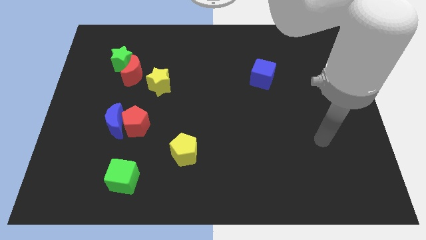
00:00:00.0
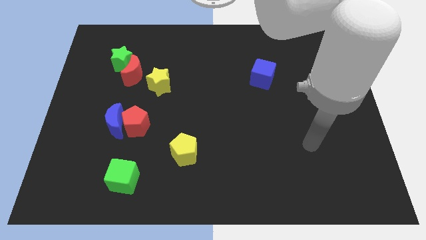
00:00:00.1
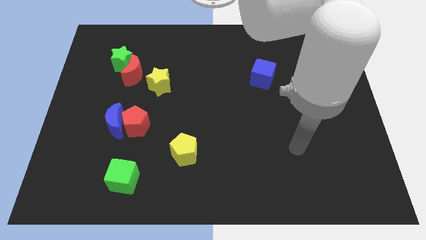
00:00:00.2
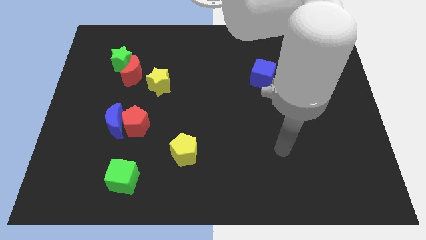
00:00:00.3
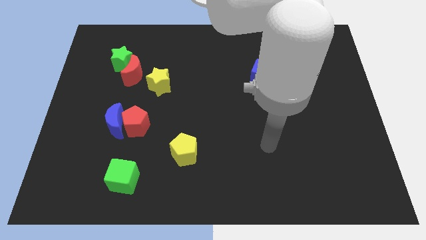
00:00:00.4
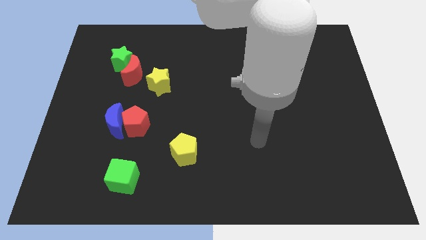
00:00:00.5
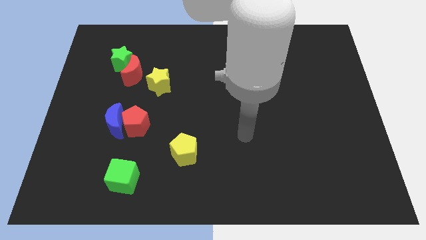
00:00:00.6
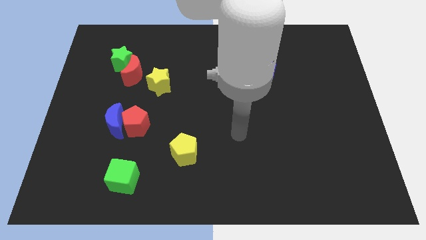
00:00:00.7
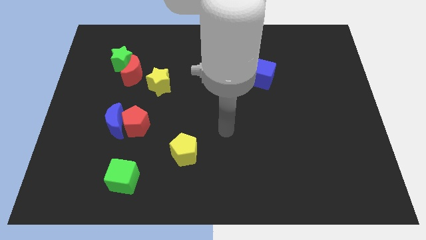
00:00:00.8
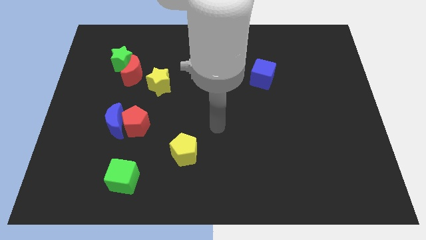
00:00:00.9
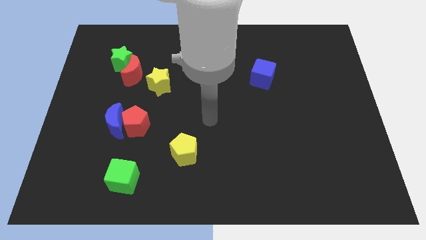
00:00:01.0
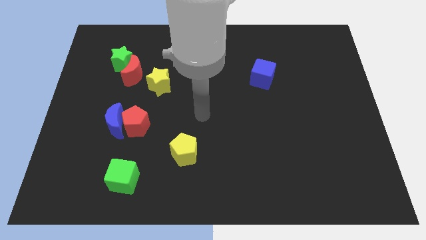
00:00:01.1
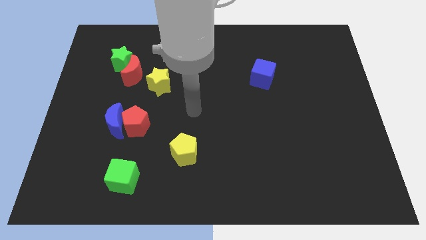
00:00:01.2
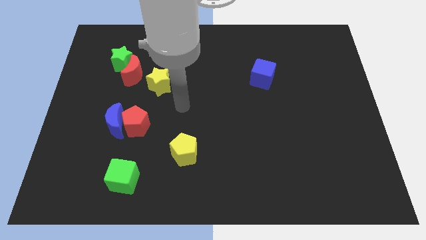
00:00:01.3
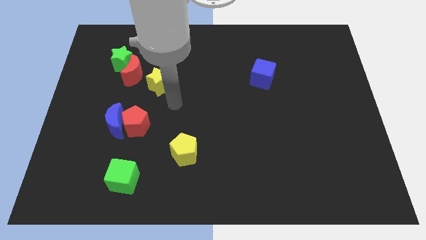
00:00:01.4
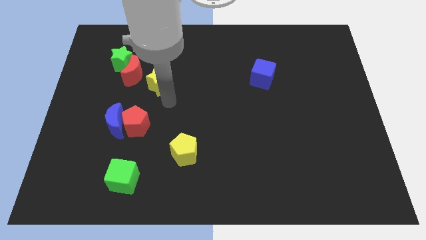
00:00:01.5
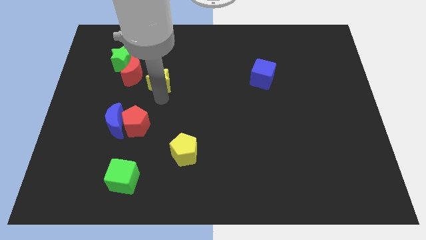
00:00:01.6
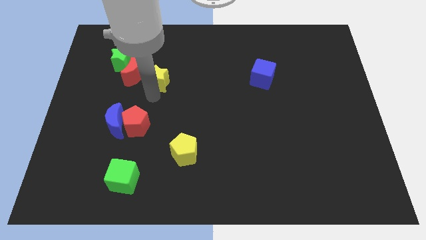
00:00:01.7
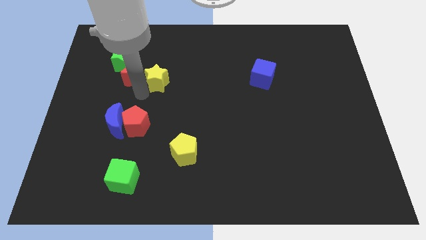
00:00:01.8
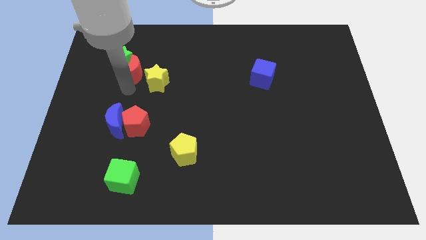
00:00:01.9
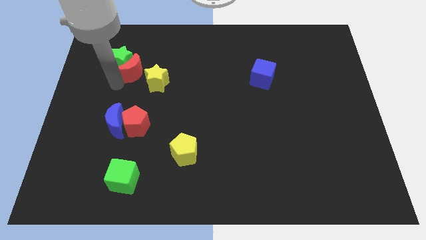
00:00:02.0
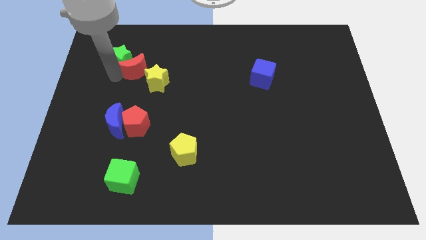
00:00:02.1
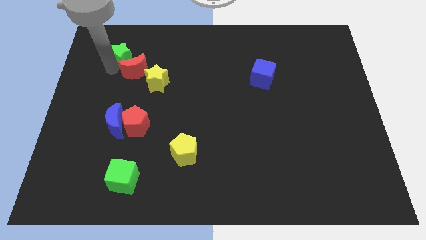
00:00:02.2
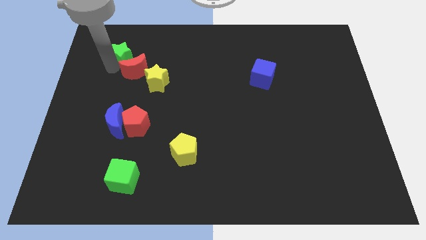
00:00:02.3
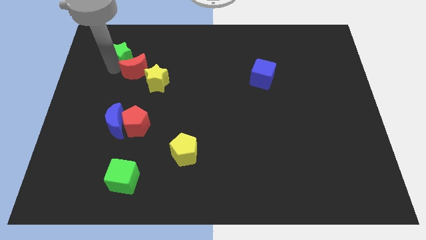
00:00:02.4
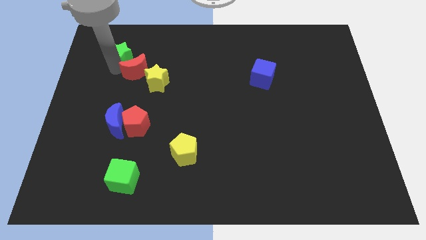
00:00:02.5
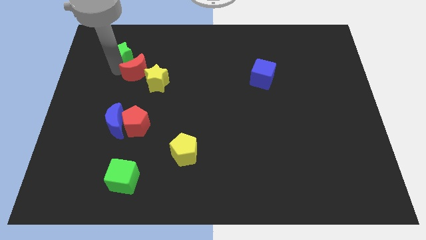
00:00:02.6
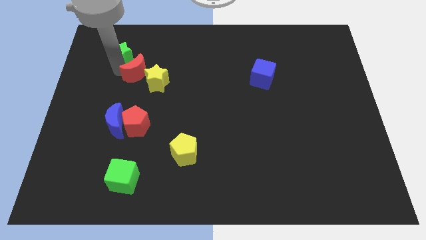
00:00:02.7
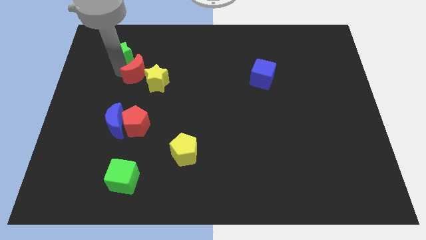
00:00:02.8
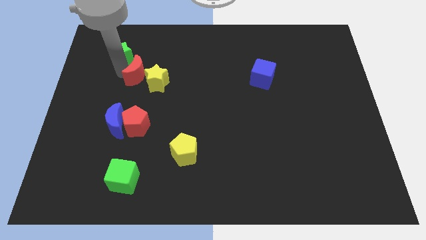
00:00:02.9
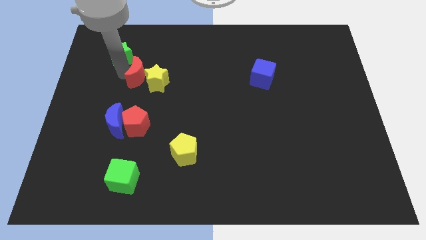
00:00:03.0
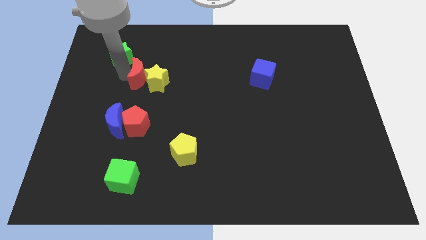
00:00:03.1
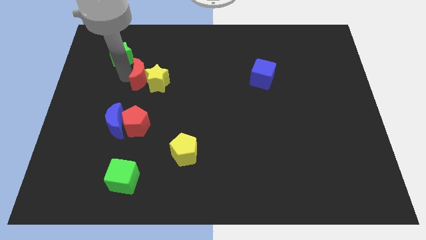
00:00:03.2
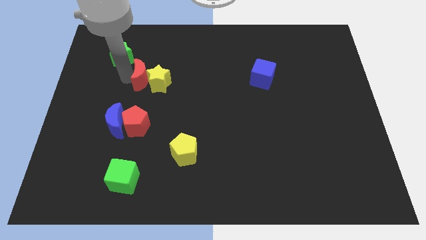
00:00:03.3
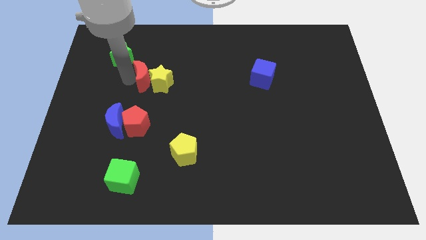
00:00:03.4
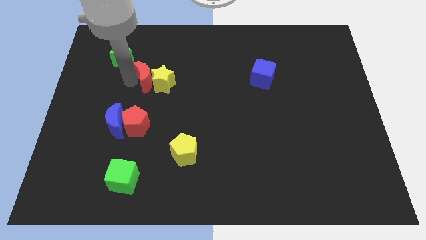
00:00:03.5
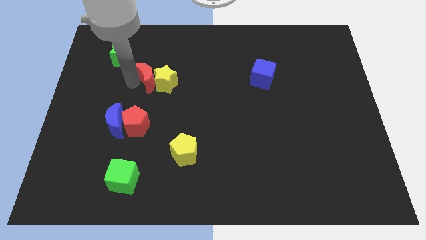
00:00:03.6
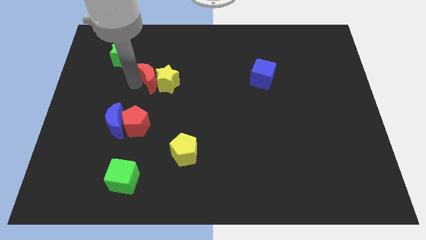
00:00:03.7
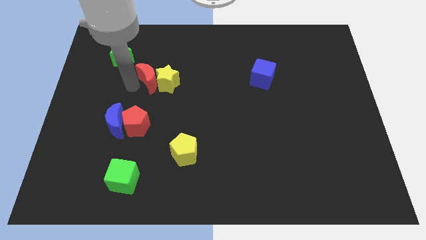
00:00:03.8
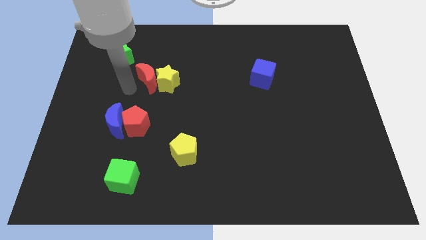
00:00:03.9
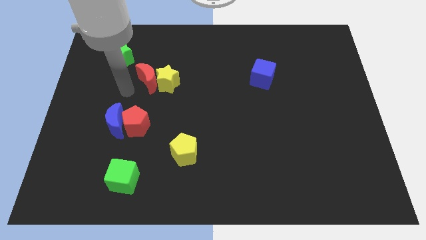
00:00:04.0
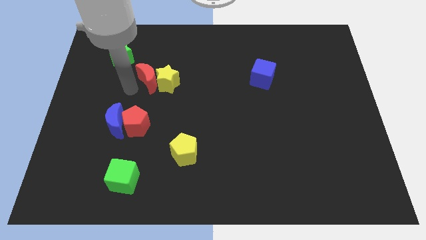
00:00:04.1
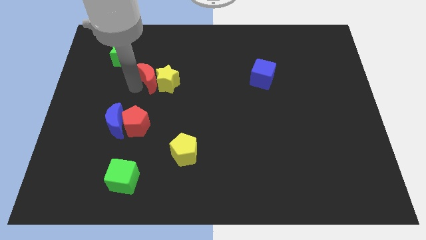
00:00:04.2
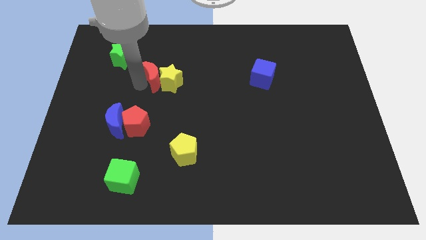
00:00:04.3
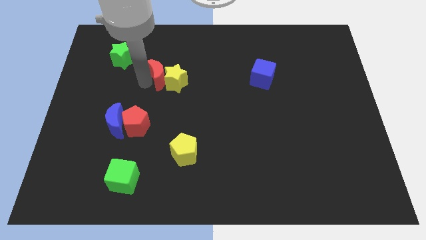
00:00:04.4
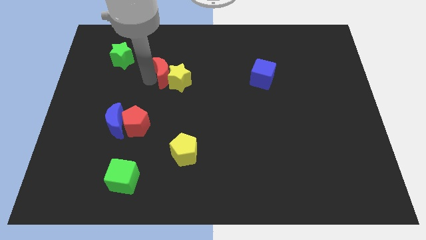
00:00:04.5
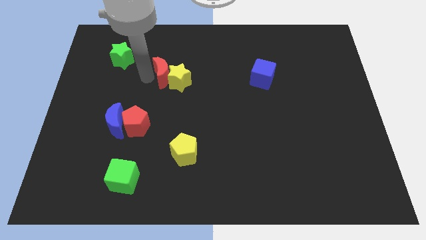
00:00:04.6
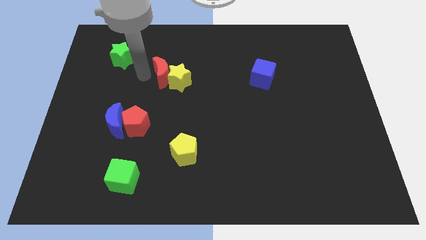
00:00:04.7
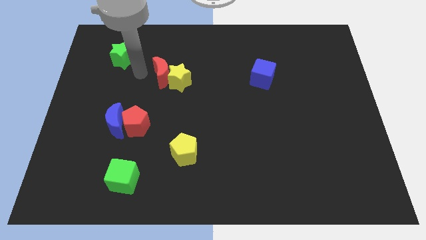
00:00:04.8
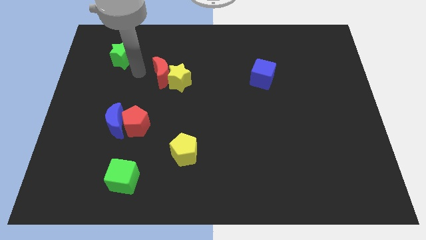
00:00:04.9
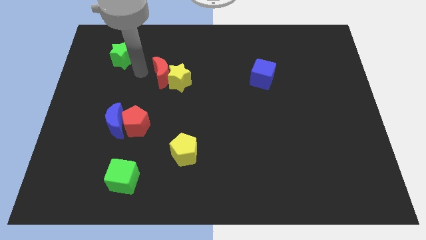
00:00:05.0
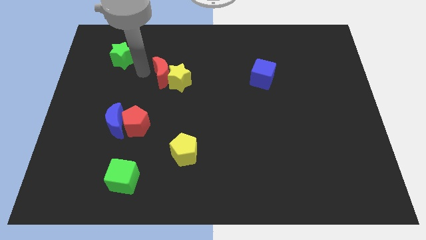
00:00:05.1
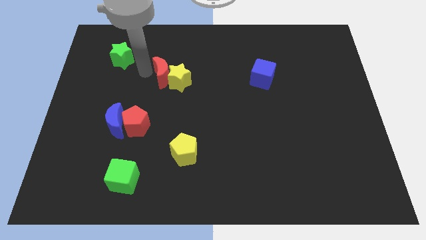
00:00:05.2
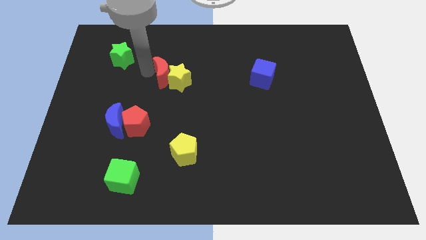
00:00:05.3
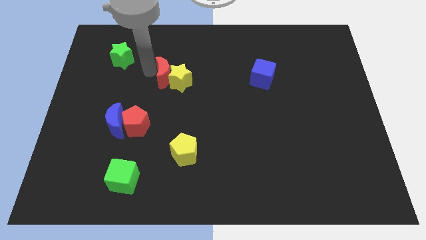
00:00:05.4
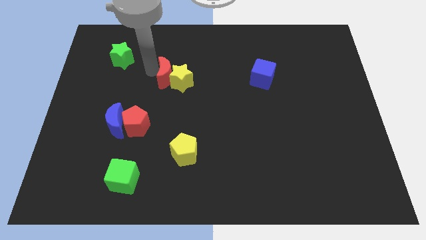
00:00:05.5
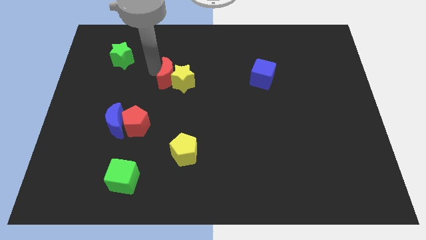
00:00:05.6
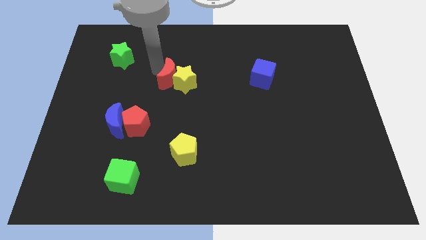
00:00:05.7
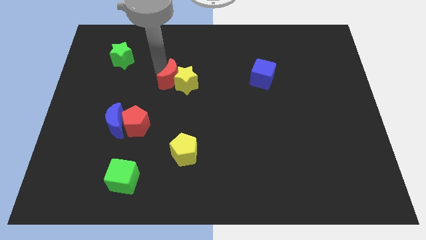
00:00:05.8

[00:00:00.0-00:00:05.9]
put the red moon to the middle of the board

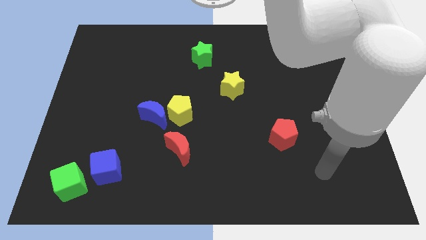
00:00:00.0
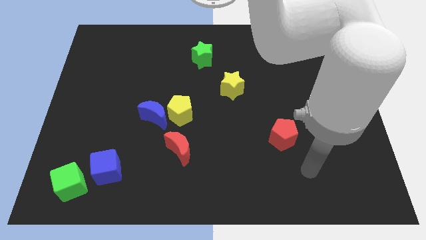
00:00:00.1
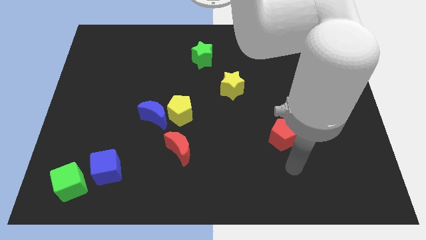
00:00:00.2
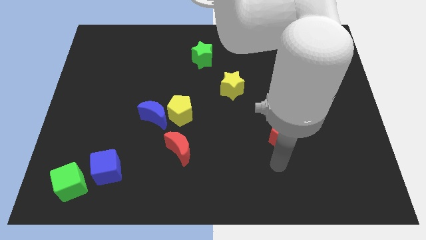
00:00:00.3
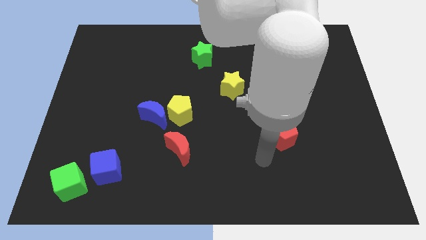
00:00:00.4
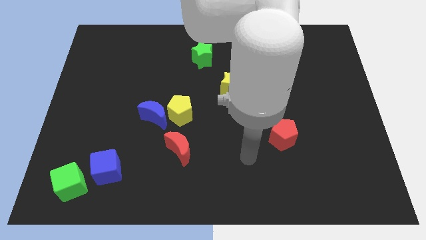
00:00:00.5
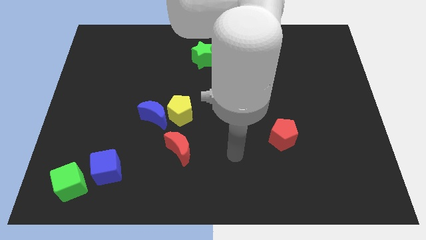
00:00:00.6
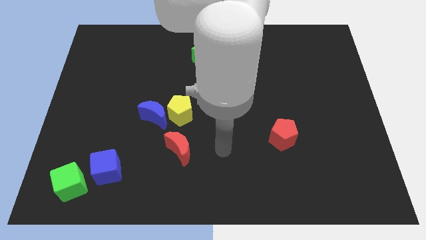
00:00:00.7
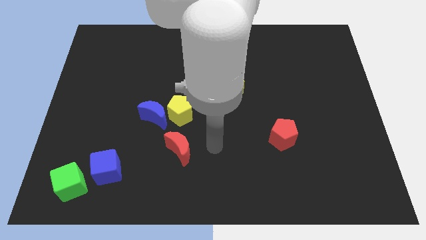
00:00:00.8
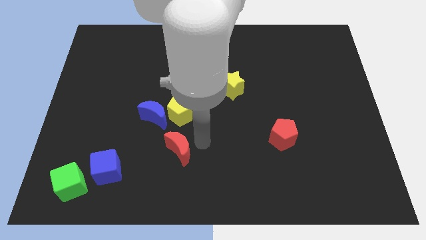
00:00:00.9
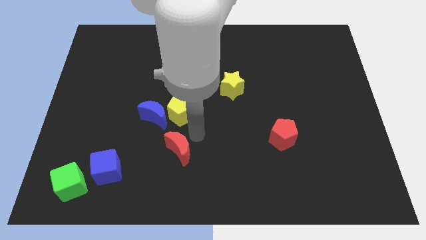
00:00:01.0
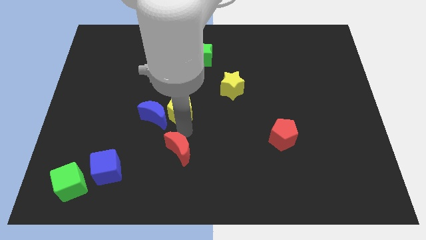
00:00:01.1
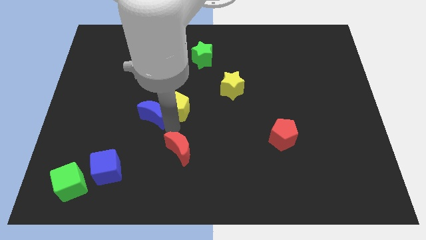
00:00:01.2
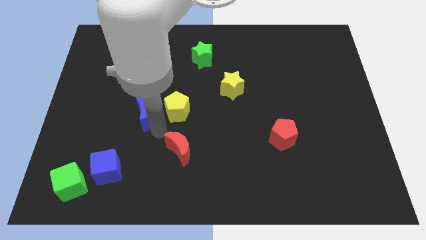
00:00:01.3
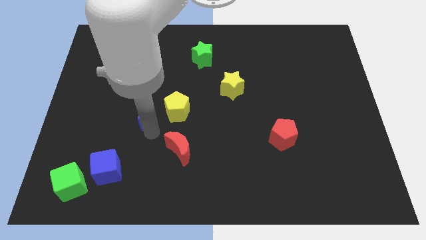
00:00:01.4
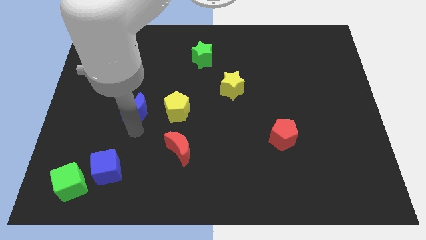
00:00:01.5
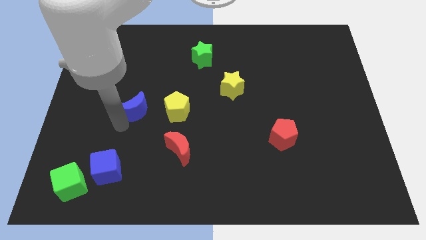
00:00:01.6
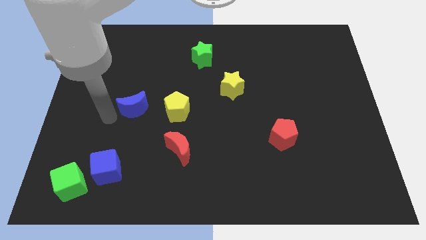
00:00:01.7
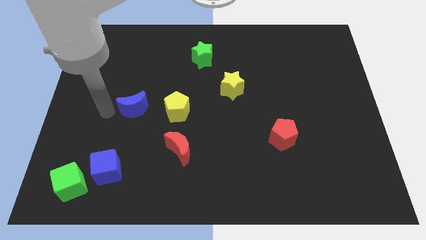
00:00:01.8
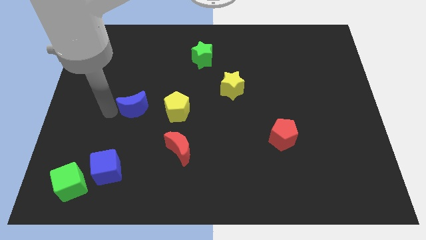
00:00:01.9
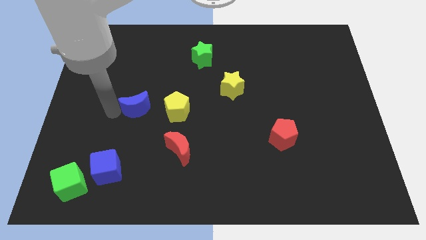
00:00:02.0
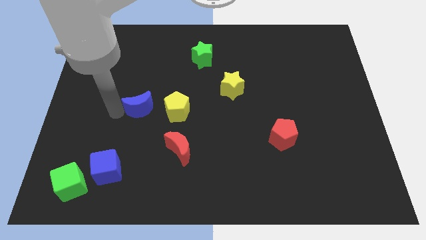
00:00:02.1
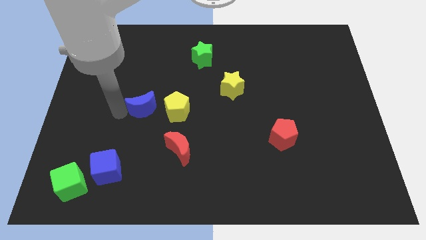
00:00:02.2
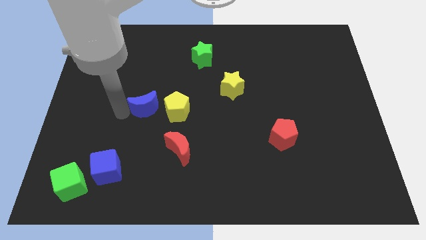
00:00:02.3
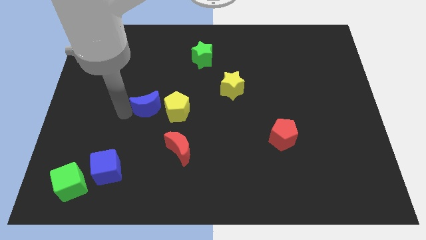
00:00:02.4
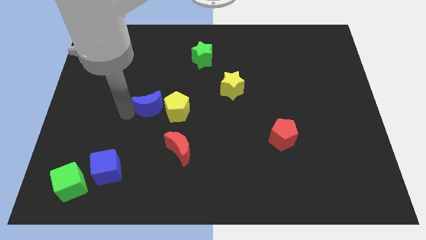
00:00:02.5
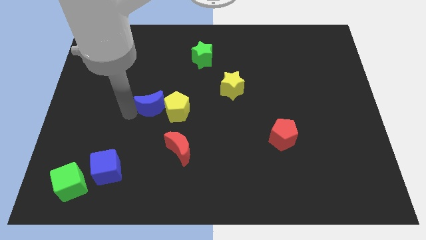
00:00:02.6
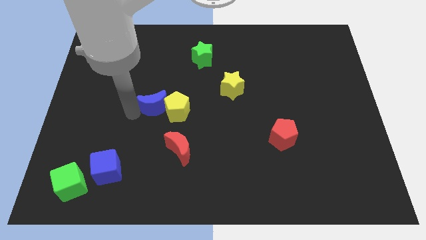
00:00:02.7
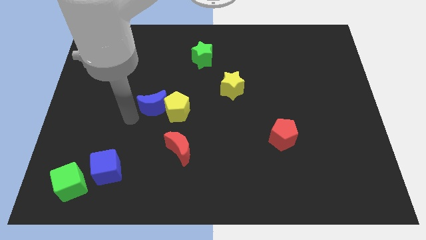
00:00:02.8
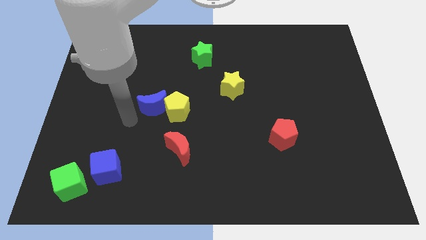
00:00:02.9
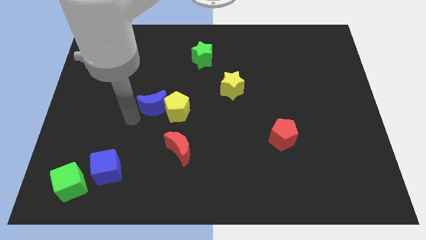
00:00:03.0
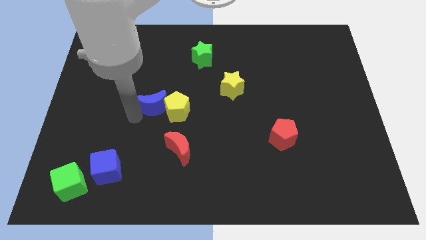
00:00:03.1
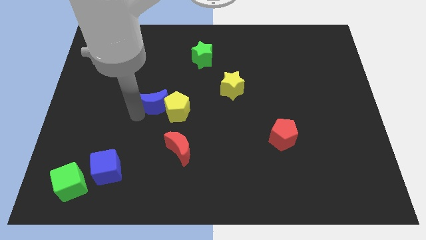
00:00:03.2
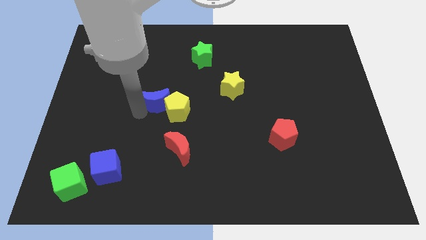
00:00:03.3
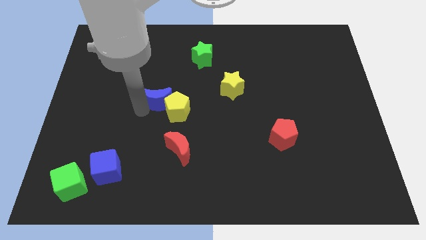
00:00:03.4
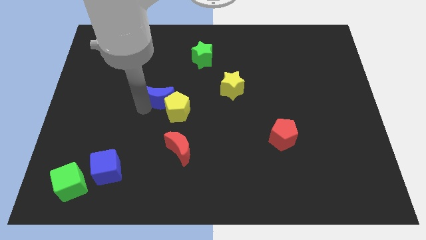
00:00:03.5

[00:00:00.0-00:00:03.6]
move the blue moon to the middle of the board
